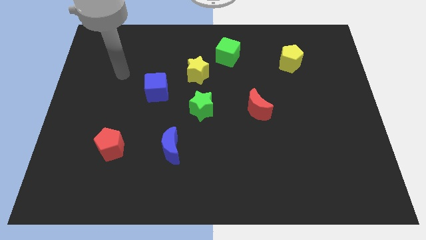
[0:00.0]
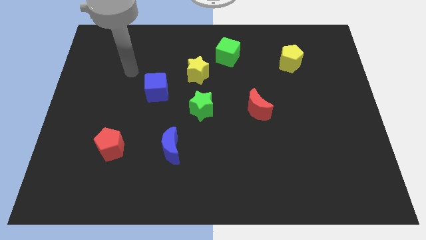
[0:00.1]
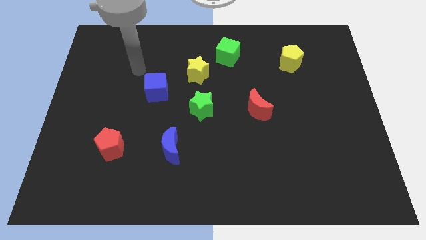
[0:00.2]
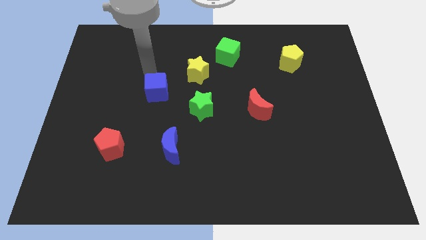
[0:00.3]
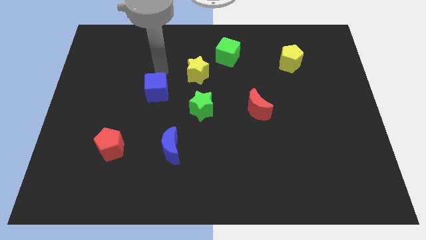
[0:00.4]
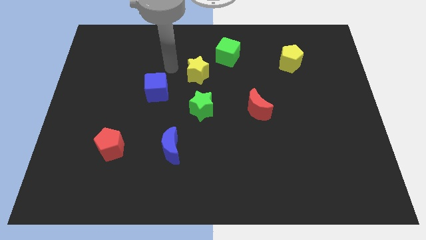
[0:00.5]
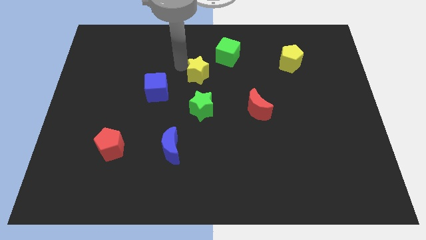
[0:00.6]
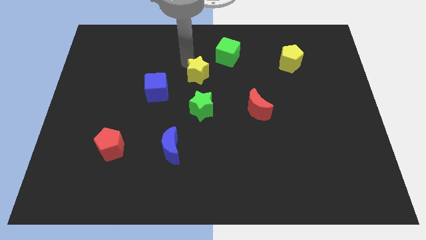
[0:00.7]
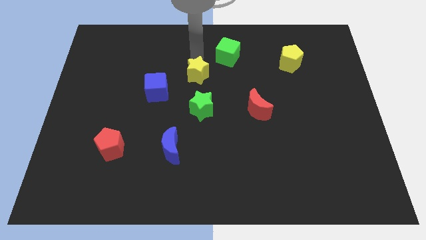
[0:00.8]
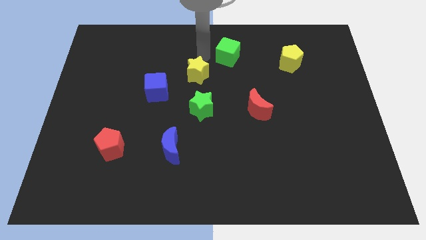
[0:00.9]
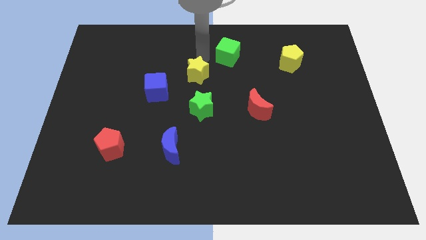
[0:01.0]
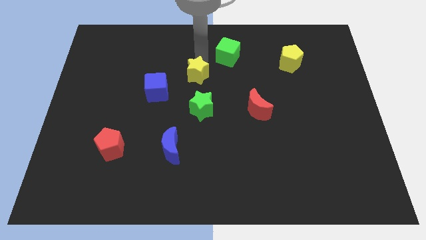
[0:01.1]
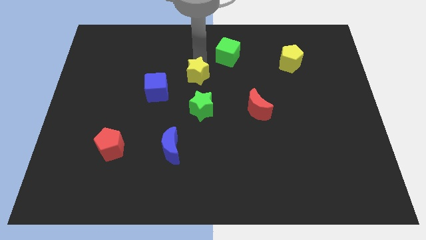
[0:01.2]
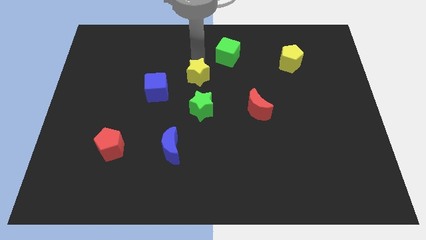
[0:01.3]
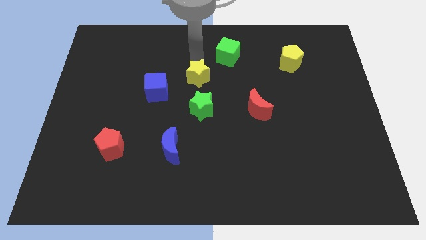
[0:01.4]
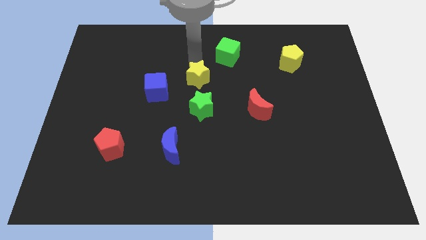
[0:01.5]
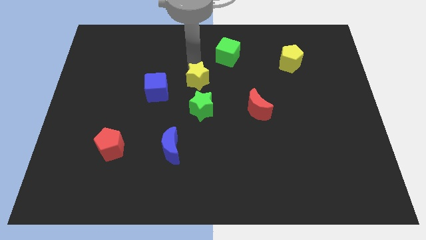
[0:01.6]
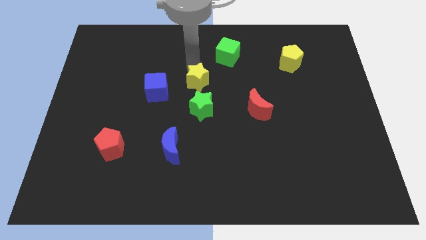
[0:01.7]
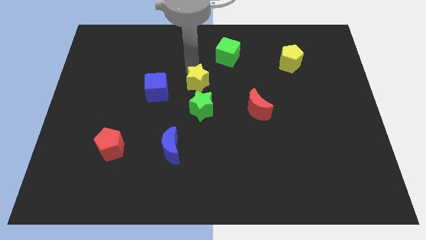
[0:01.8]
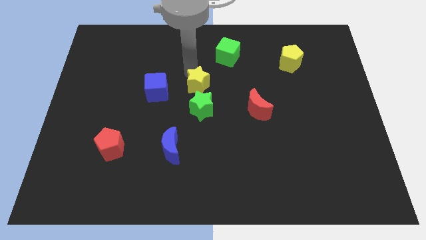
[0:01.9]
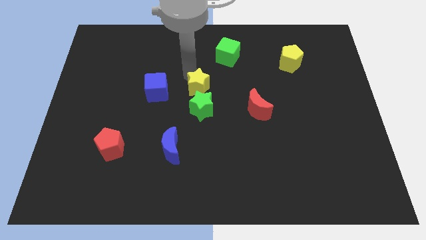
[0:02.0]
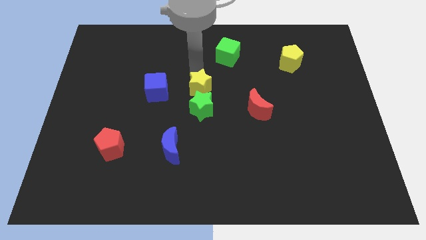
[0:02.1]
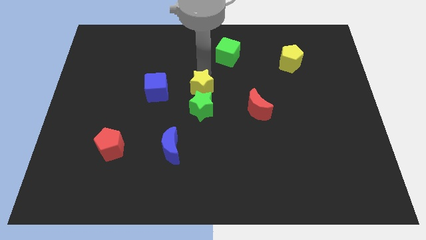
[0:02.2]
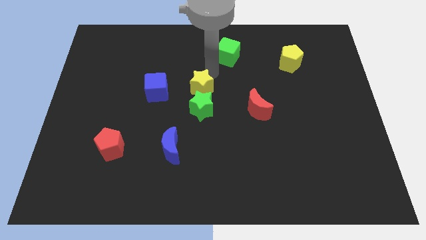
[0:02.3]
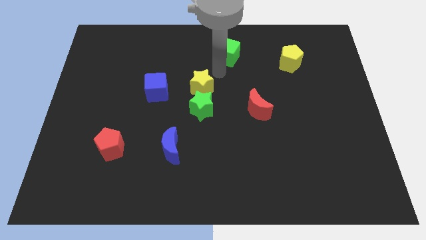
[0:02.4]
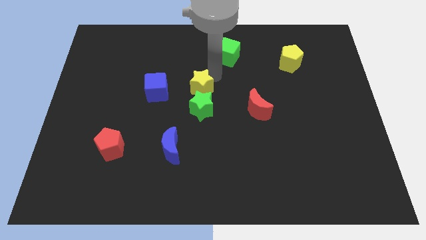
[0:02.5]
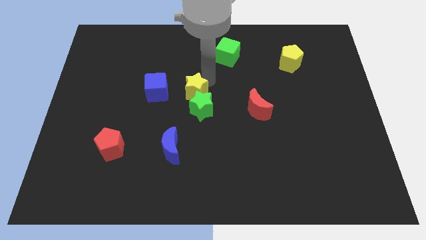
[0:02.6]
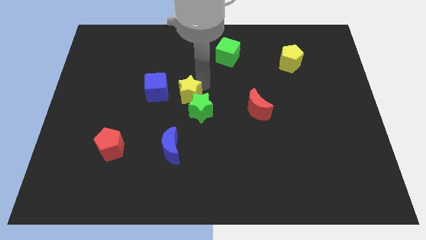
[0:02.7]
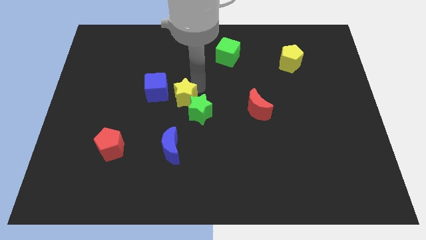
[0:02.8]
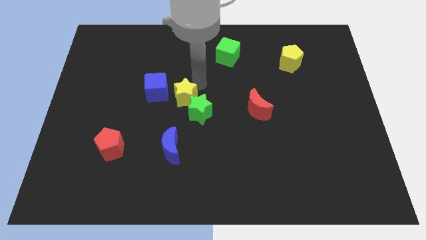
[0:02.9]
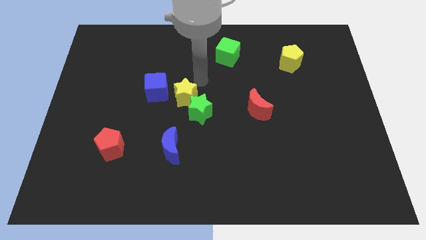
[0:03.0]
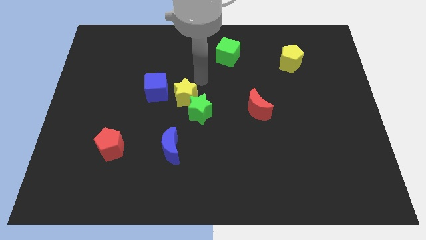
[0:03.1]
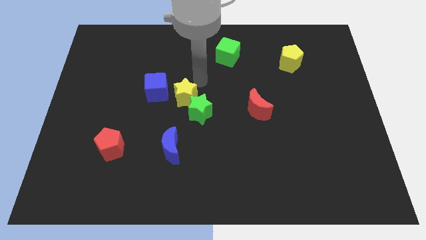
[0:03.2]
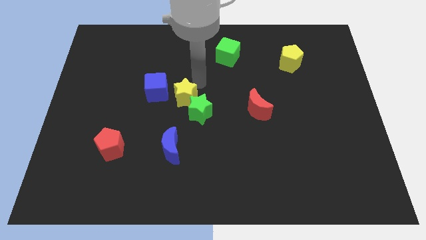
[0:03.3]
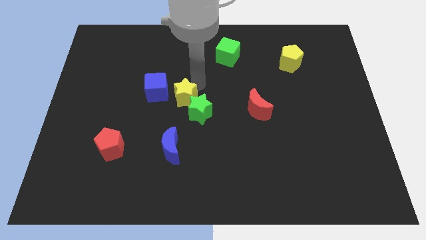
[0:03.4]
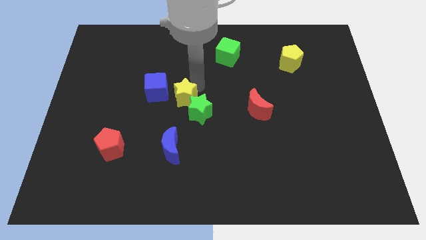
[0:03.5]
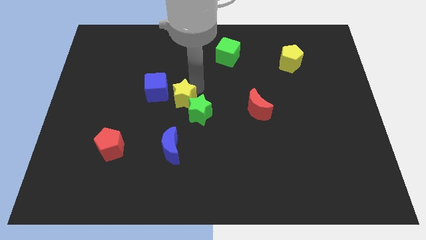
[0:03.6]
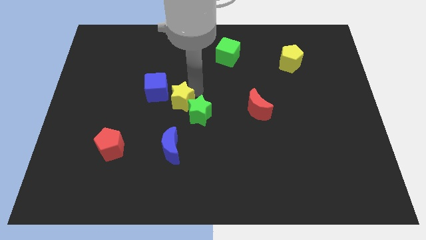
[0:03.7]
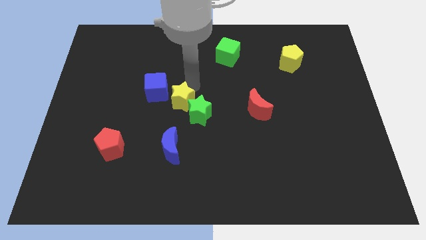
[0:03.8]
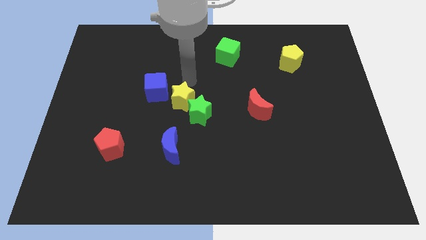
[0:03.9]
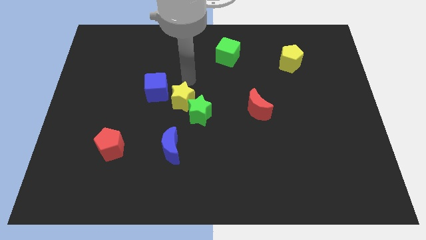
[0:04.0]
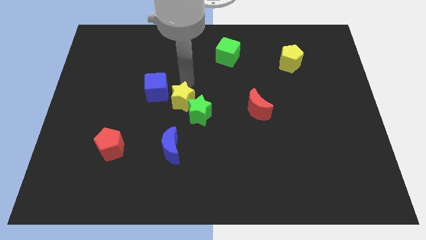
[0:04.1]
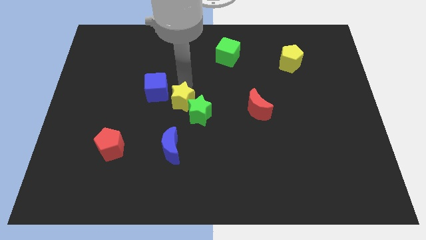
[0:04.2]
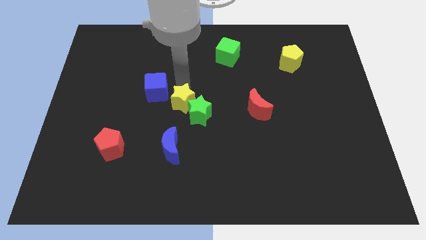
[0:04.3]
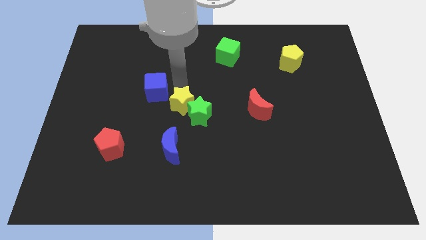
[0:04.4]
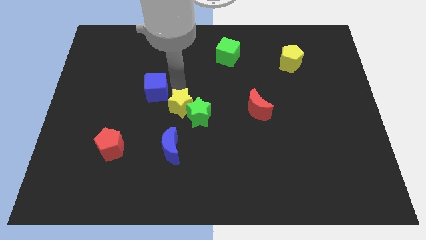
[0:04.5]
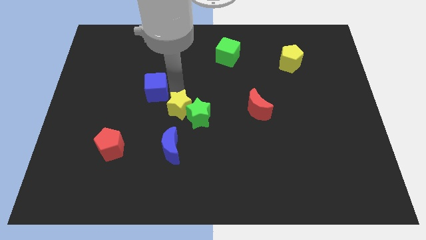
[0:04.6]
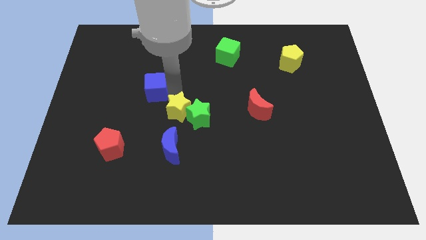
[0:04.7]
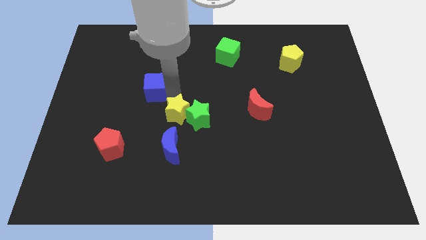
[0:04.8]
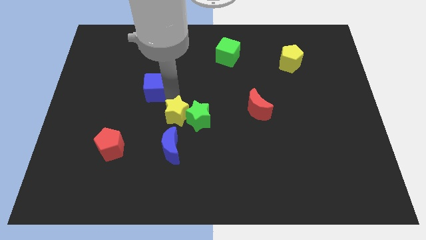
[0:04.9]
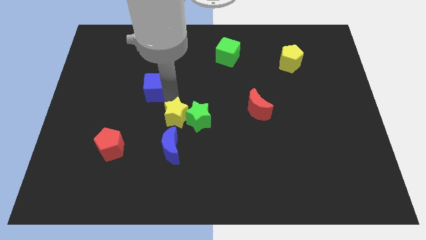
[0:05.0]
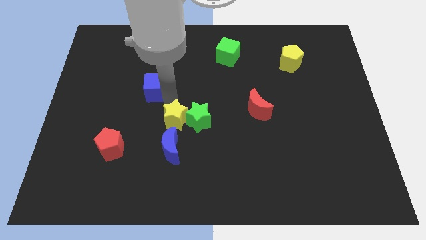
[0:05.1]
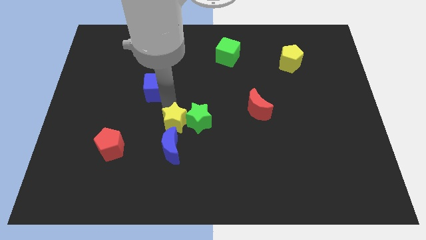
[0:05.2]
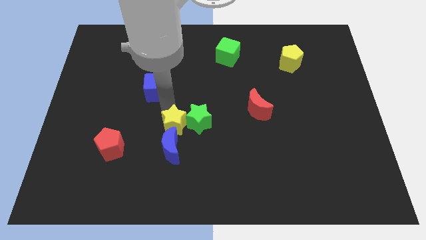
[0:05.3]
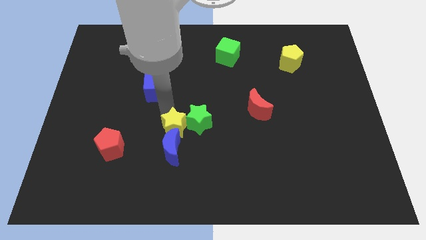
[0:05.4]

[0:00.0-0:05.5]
move the yellow star close to the blue moon
